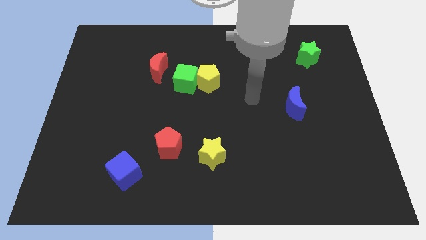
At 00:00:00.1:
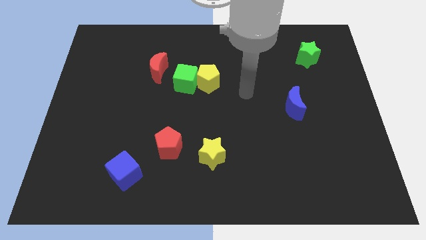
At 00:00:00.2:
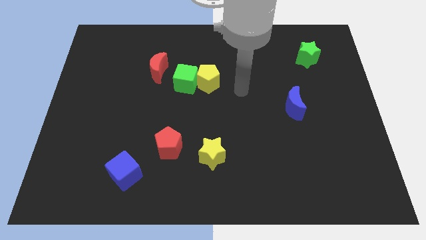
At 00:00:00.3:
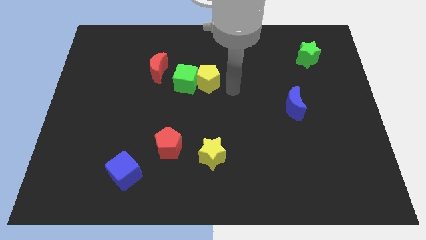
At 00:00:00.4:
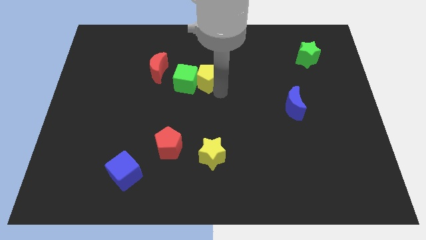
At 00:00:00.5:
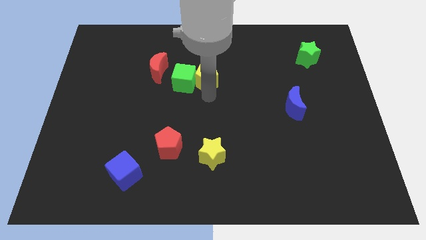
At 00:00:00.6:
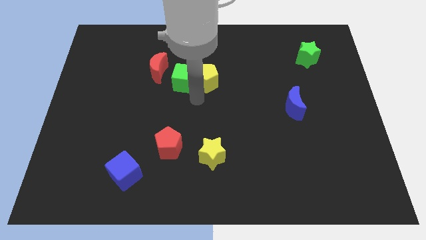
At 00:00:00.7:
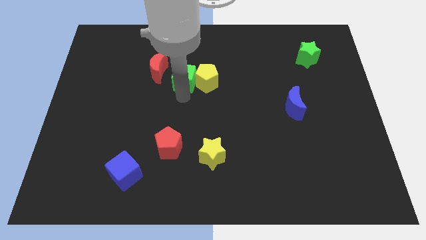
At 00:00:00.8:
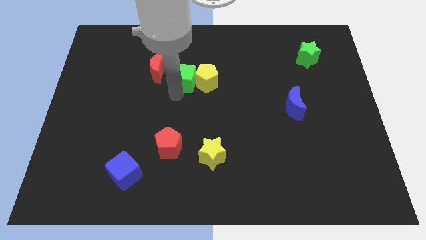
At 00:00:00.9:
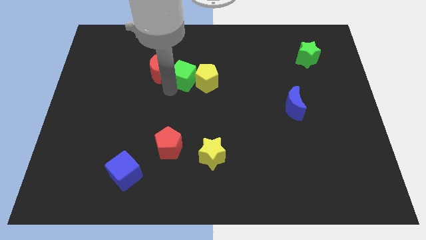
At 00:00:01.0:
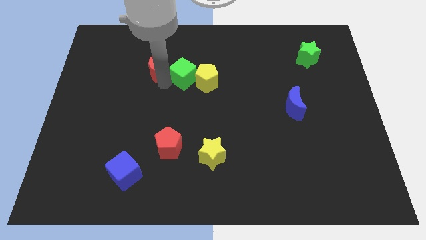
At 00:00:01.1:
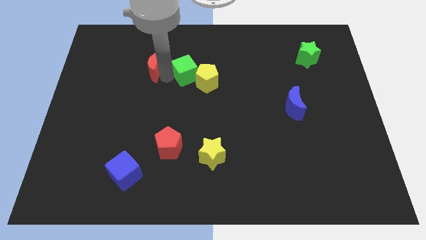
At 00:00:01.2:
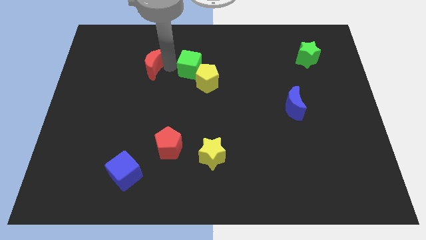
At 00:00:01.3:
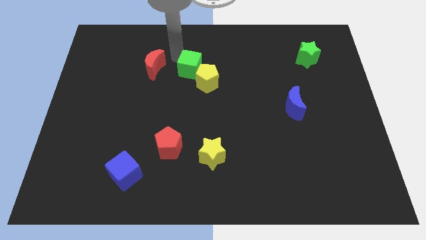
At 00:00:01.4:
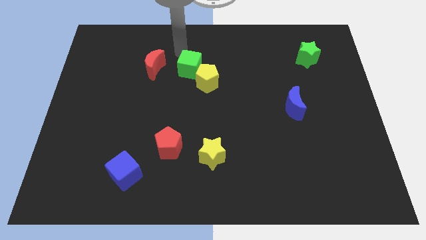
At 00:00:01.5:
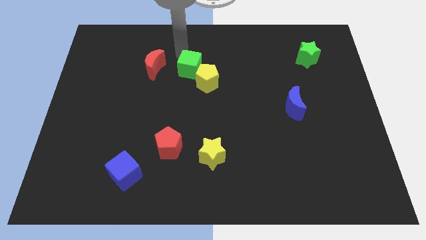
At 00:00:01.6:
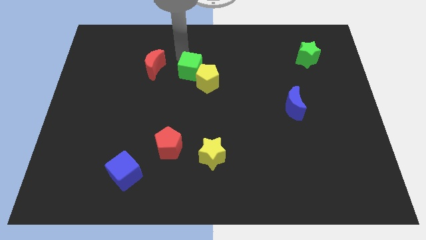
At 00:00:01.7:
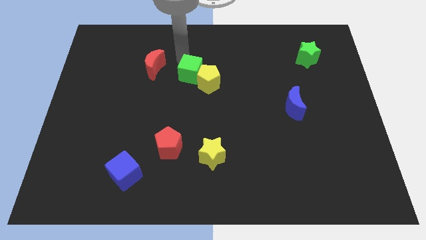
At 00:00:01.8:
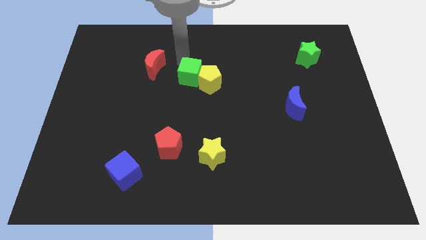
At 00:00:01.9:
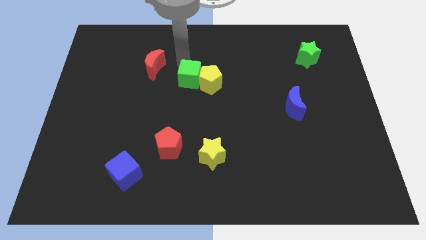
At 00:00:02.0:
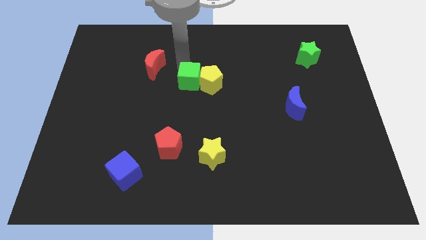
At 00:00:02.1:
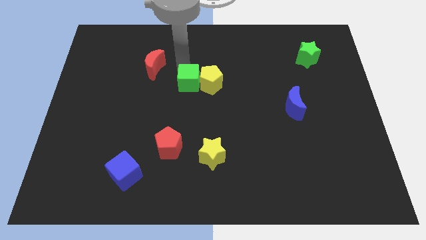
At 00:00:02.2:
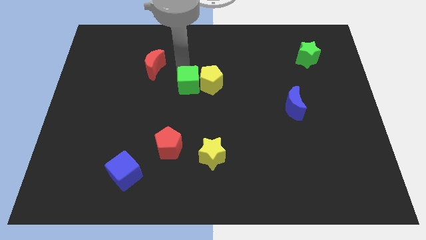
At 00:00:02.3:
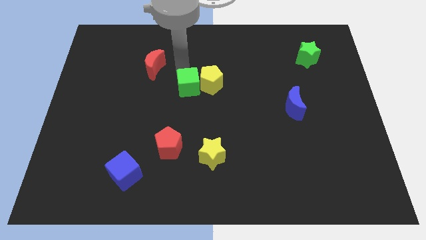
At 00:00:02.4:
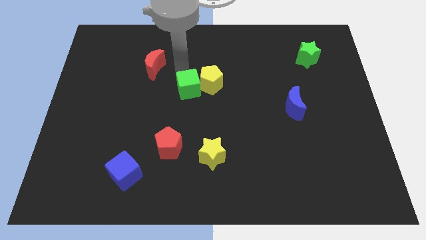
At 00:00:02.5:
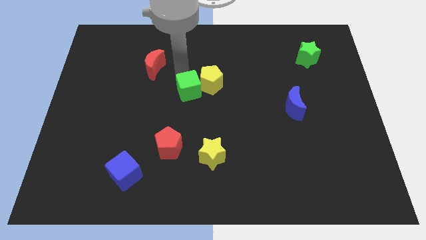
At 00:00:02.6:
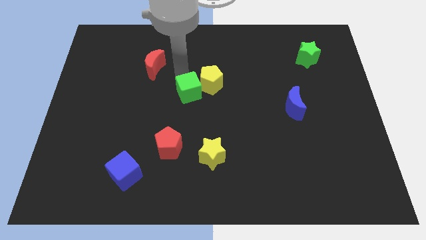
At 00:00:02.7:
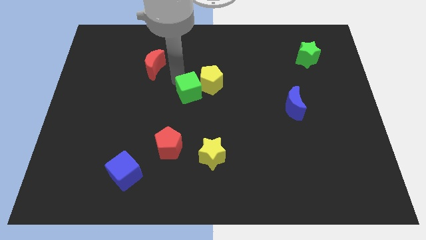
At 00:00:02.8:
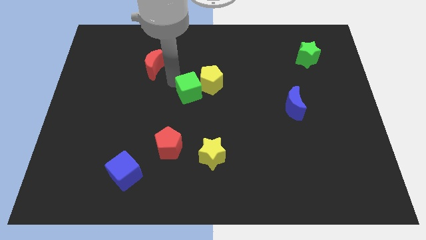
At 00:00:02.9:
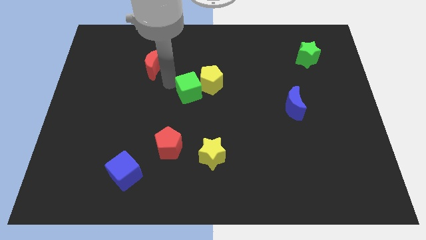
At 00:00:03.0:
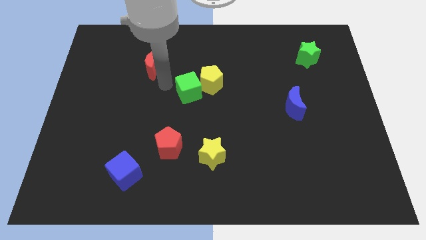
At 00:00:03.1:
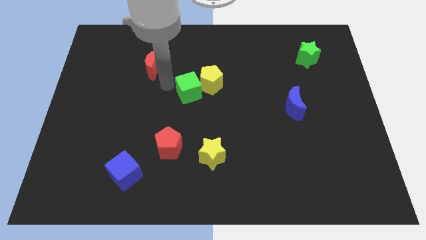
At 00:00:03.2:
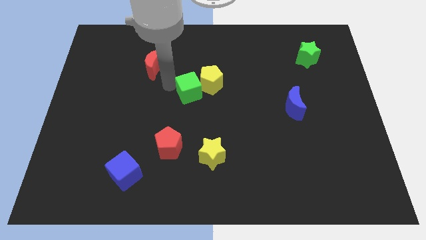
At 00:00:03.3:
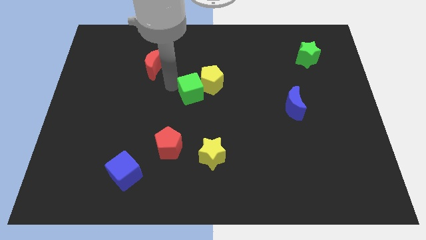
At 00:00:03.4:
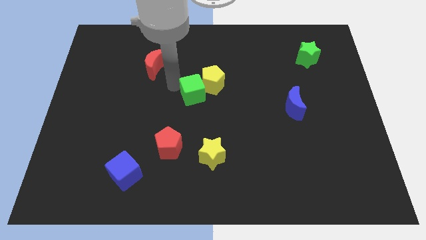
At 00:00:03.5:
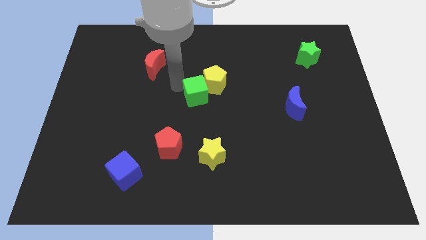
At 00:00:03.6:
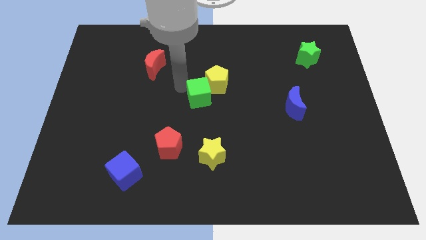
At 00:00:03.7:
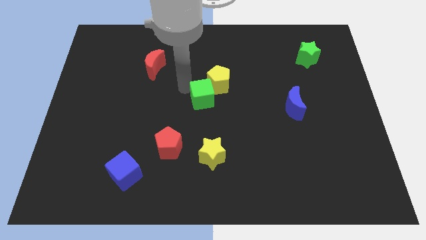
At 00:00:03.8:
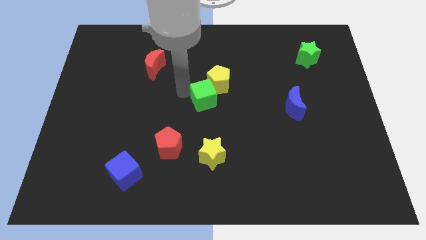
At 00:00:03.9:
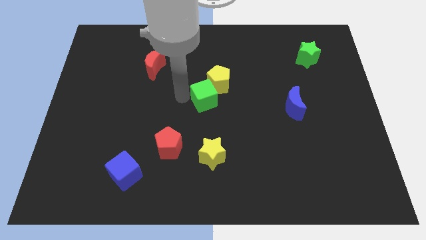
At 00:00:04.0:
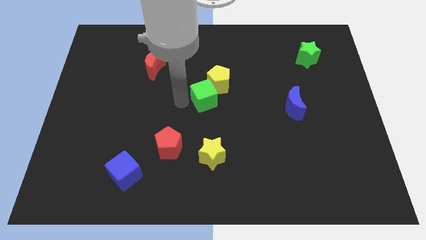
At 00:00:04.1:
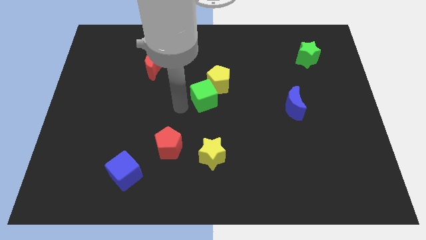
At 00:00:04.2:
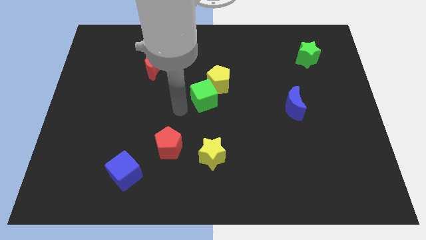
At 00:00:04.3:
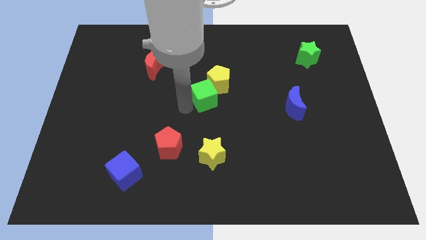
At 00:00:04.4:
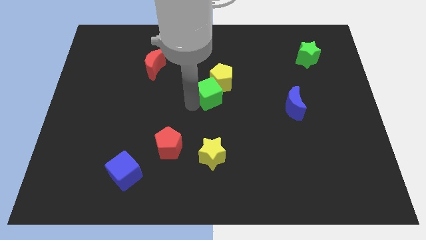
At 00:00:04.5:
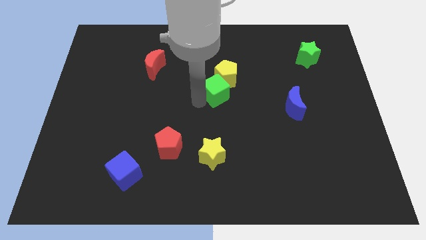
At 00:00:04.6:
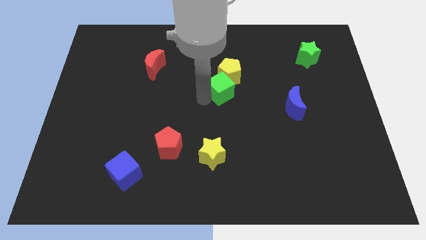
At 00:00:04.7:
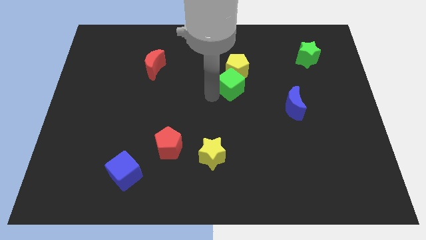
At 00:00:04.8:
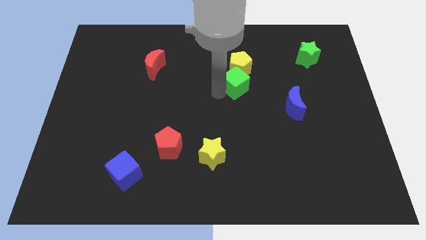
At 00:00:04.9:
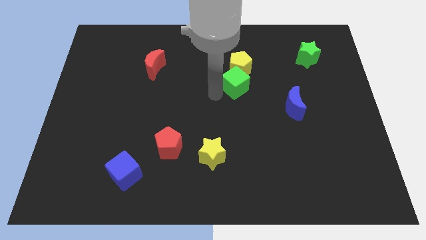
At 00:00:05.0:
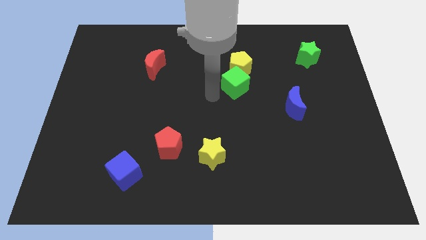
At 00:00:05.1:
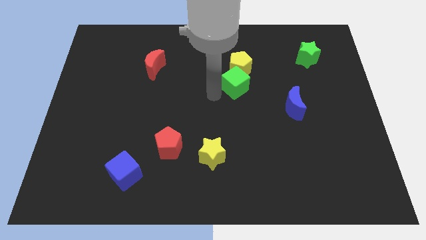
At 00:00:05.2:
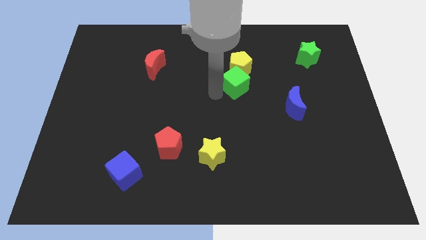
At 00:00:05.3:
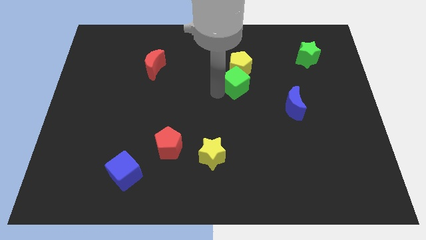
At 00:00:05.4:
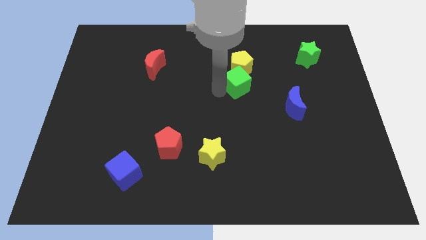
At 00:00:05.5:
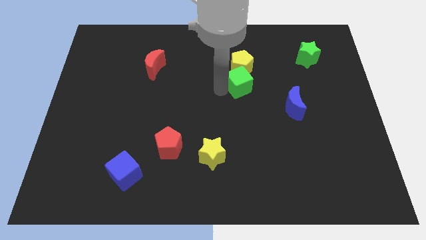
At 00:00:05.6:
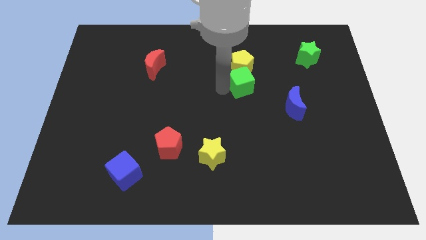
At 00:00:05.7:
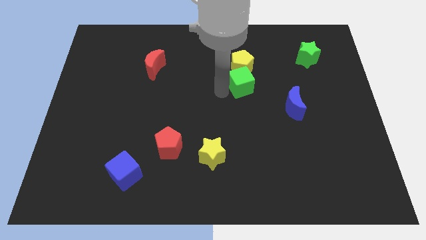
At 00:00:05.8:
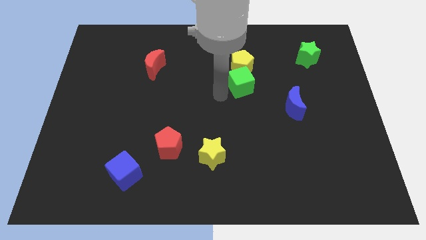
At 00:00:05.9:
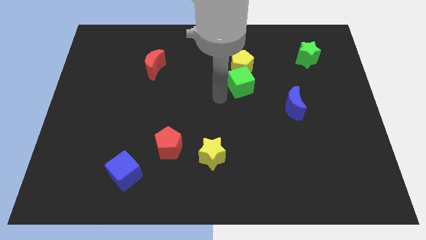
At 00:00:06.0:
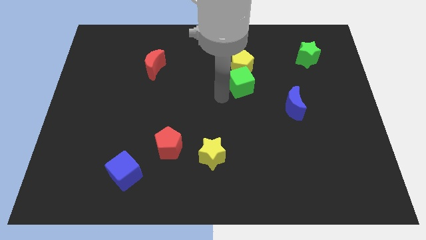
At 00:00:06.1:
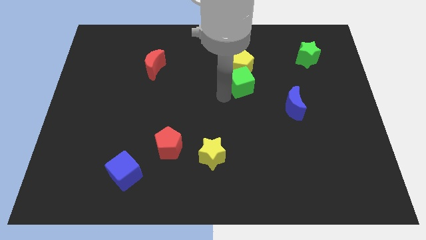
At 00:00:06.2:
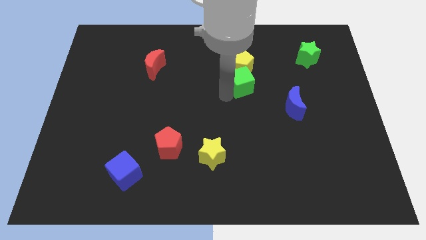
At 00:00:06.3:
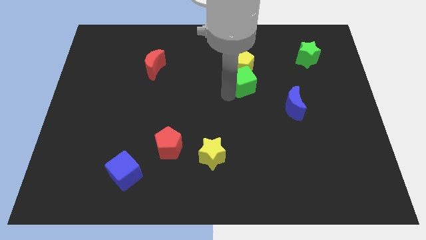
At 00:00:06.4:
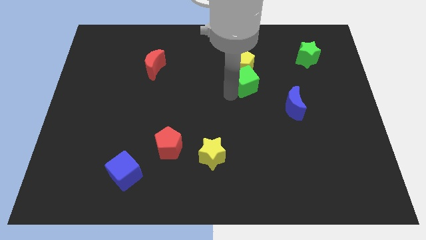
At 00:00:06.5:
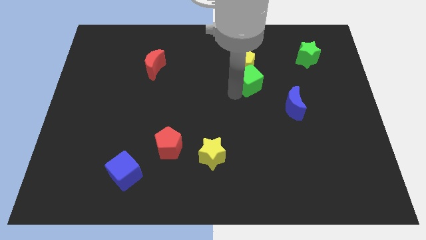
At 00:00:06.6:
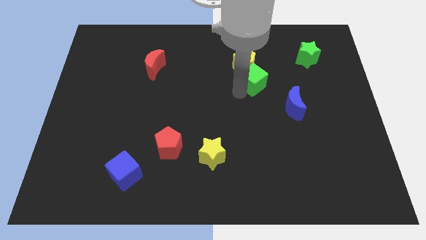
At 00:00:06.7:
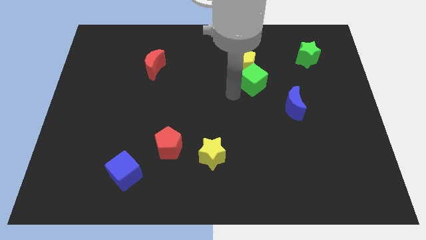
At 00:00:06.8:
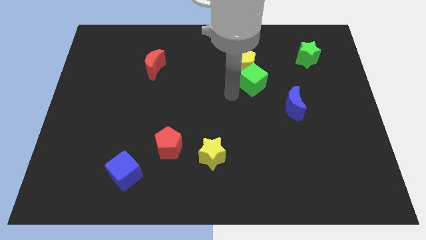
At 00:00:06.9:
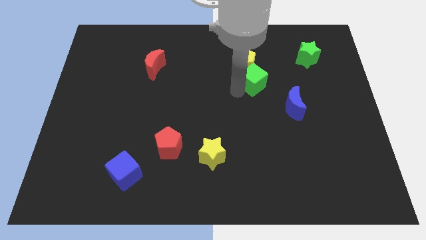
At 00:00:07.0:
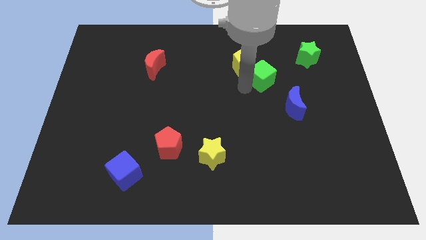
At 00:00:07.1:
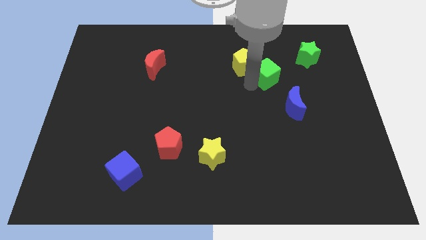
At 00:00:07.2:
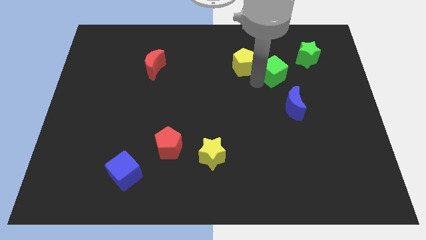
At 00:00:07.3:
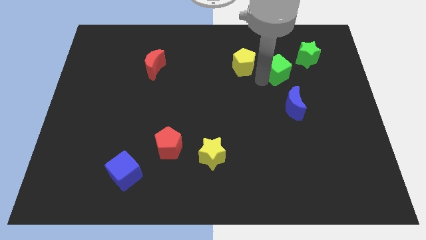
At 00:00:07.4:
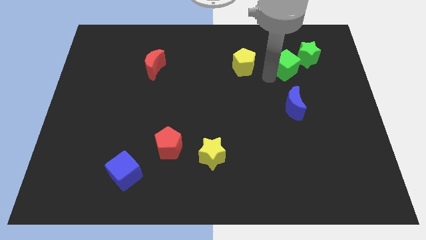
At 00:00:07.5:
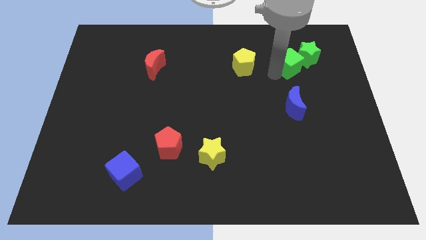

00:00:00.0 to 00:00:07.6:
push the green cube towards the green star
